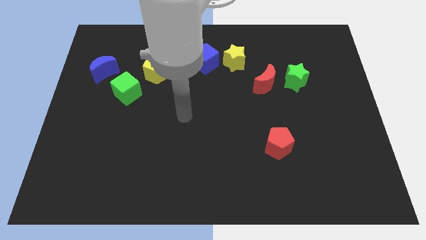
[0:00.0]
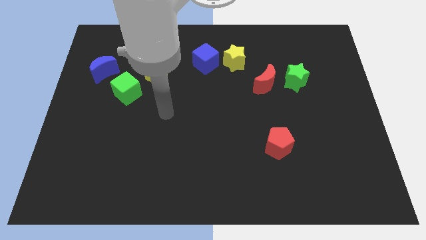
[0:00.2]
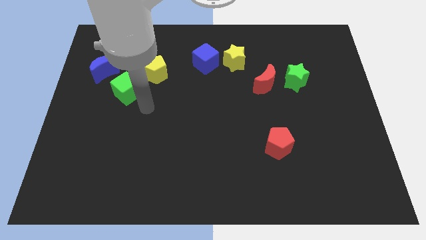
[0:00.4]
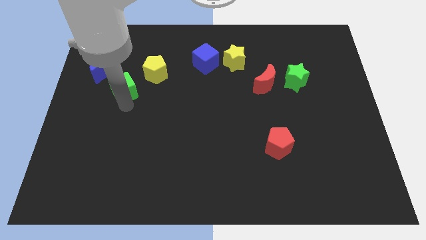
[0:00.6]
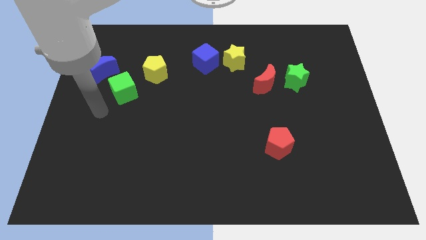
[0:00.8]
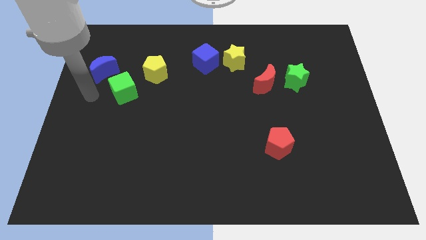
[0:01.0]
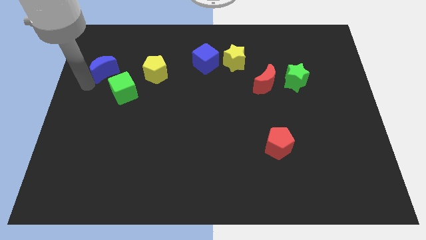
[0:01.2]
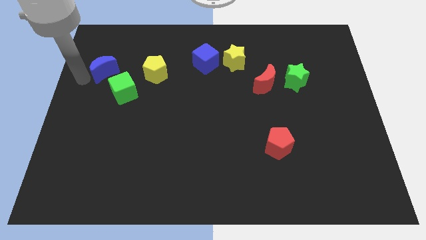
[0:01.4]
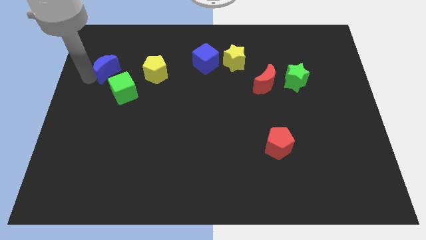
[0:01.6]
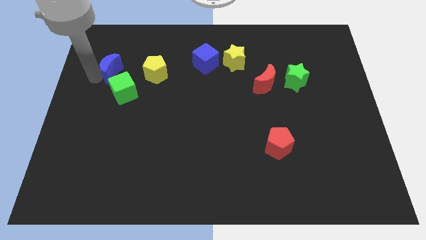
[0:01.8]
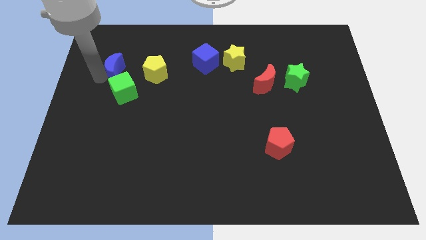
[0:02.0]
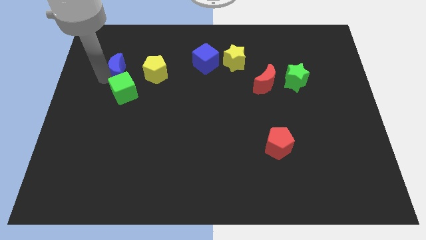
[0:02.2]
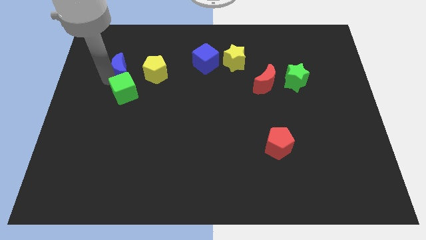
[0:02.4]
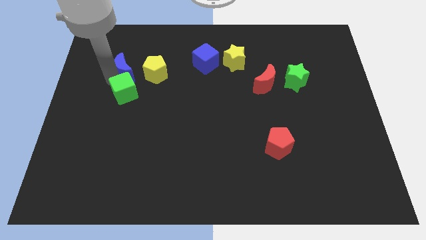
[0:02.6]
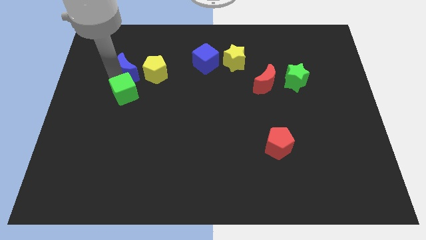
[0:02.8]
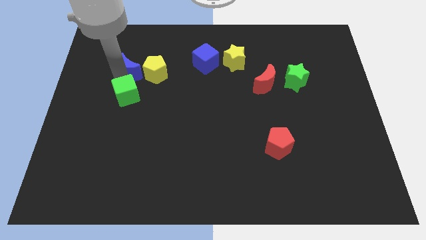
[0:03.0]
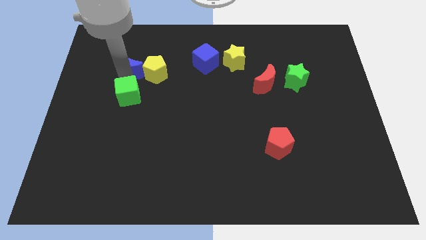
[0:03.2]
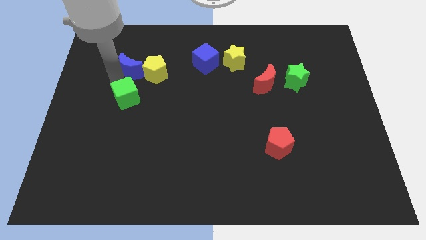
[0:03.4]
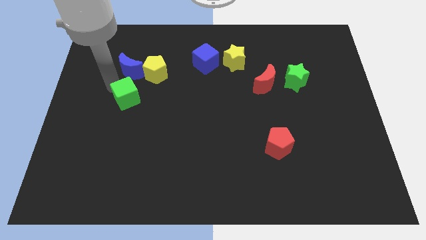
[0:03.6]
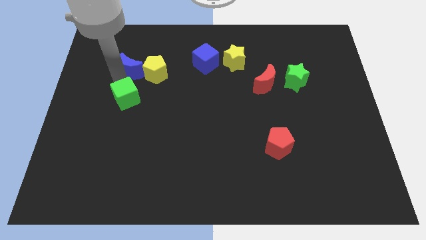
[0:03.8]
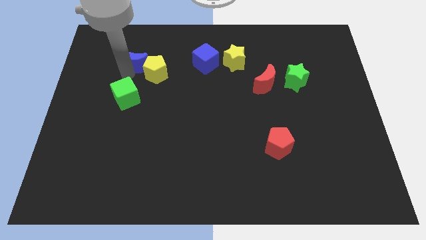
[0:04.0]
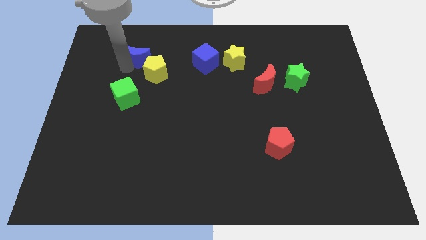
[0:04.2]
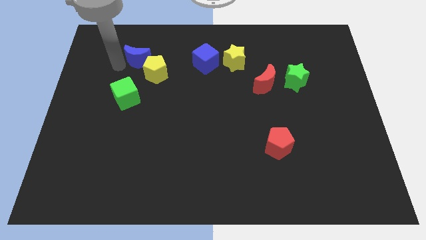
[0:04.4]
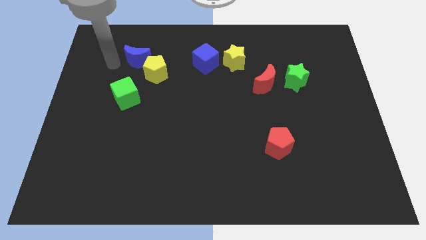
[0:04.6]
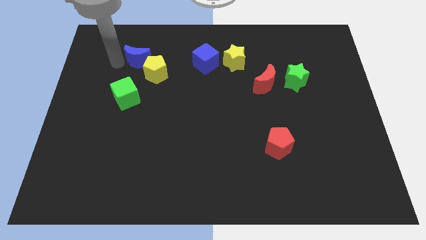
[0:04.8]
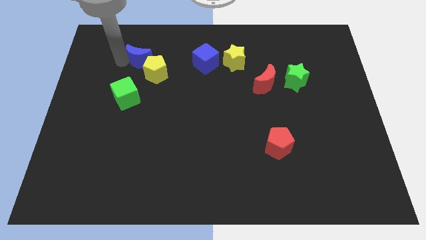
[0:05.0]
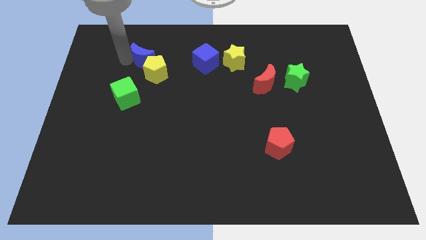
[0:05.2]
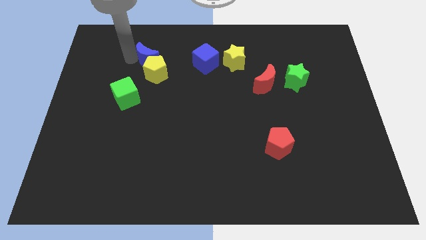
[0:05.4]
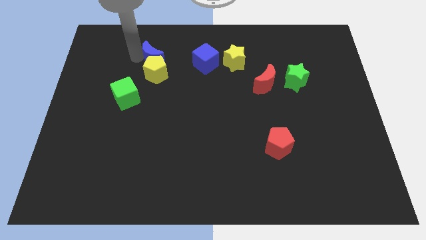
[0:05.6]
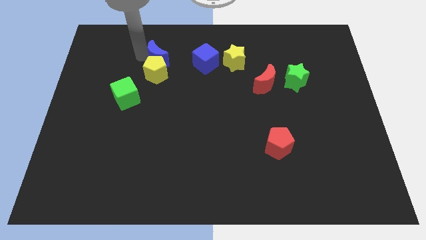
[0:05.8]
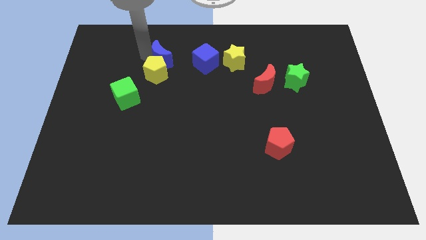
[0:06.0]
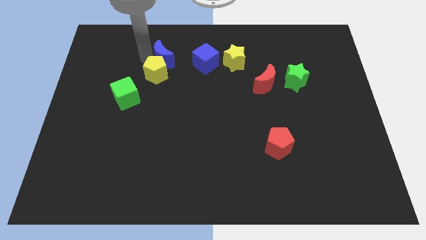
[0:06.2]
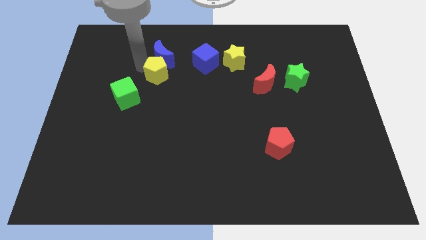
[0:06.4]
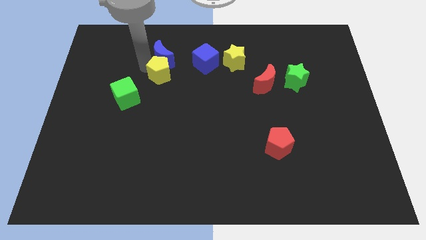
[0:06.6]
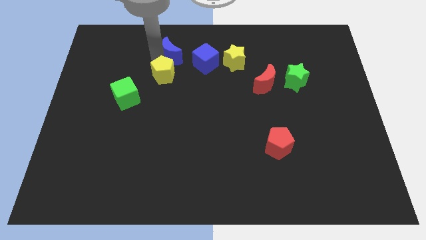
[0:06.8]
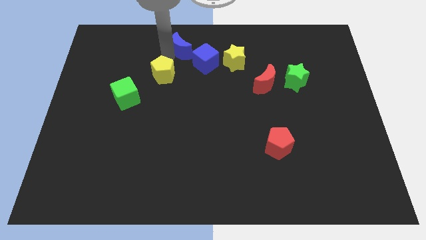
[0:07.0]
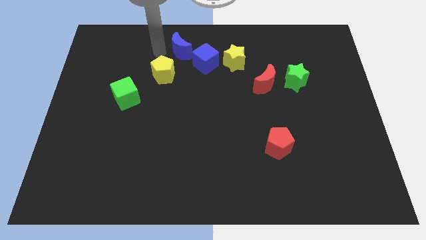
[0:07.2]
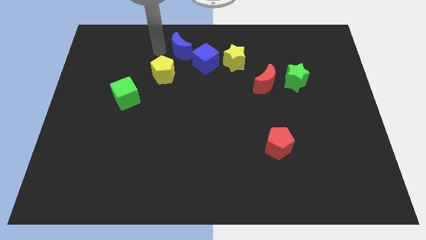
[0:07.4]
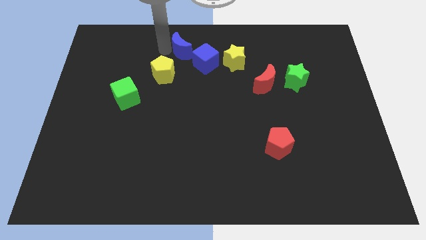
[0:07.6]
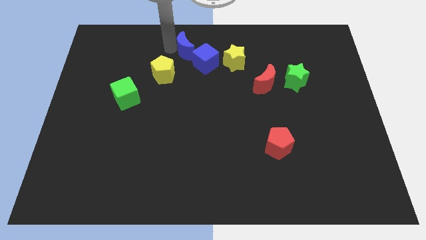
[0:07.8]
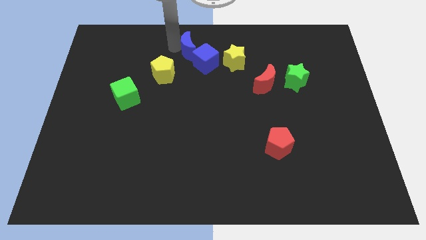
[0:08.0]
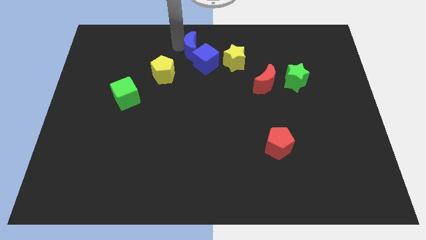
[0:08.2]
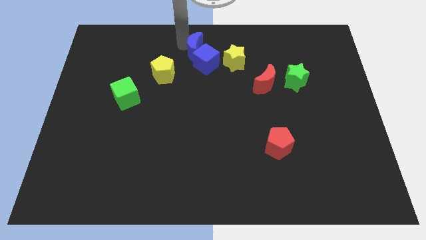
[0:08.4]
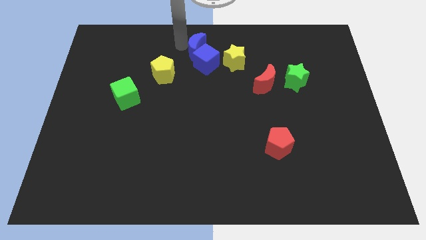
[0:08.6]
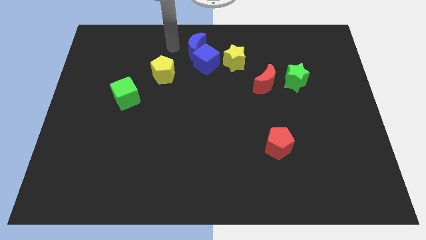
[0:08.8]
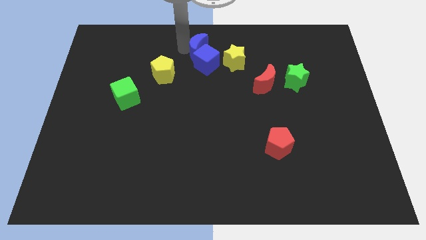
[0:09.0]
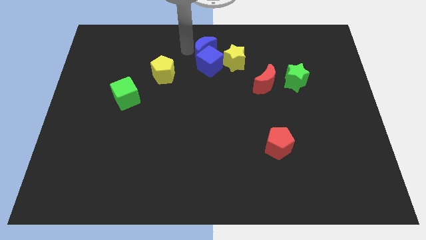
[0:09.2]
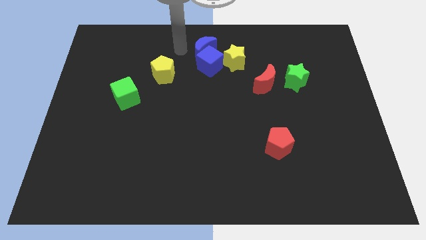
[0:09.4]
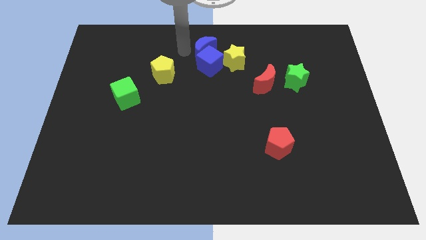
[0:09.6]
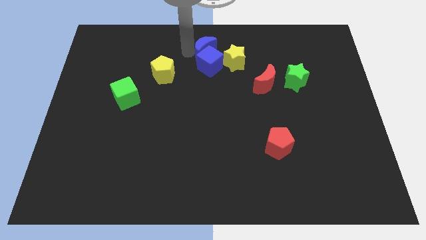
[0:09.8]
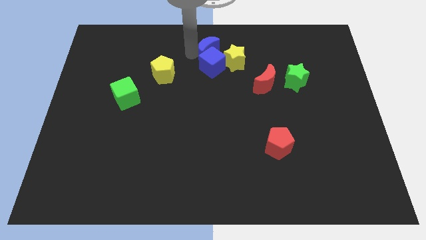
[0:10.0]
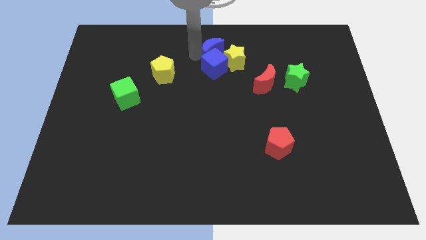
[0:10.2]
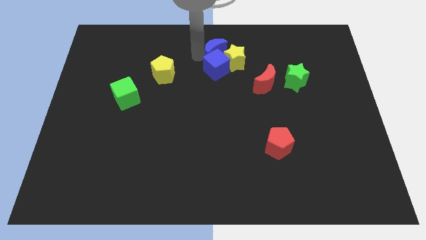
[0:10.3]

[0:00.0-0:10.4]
move the blue moon next to the yellow star

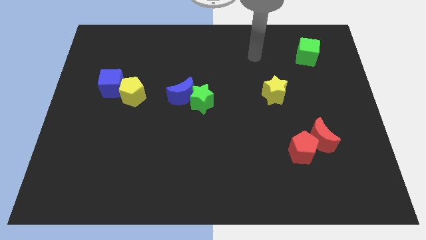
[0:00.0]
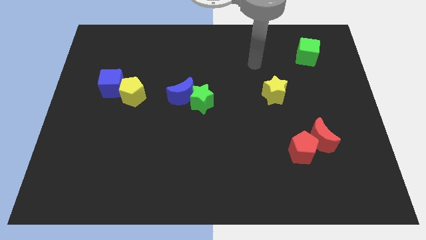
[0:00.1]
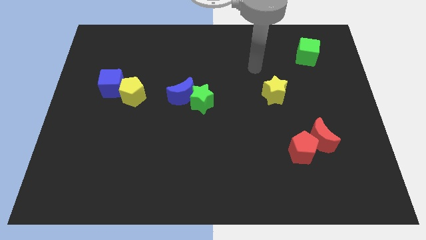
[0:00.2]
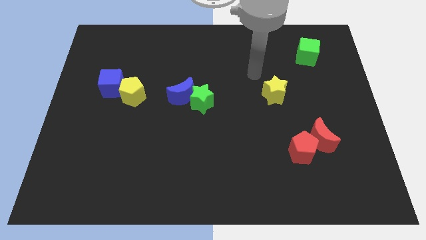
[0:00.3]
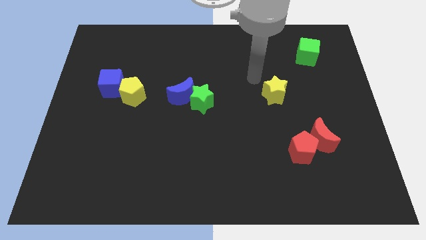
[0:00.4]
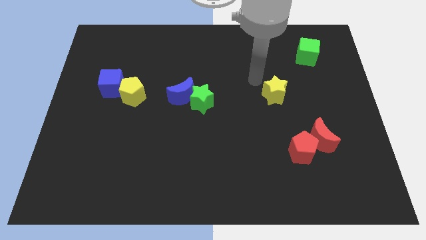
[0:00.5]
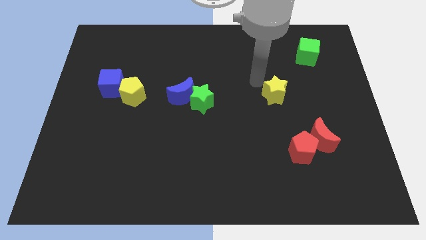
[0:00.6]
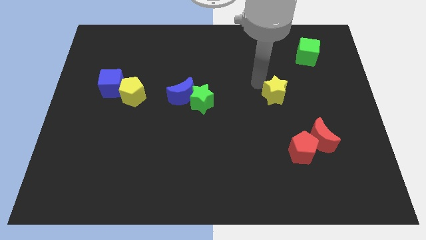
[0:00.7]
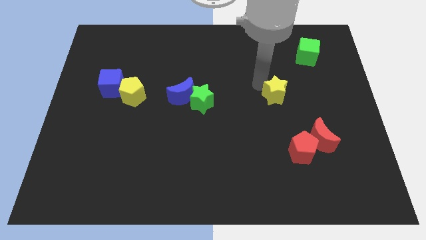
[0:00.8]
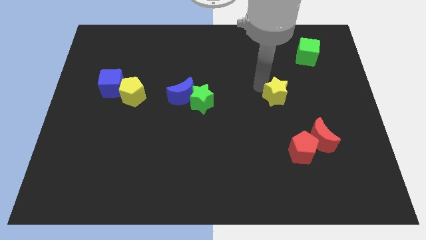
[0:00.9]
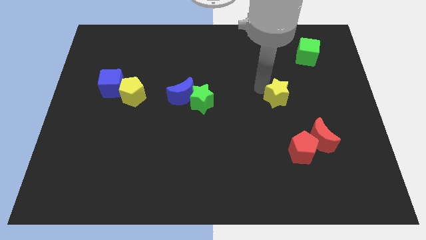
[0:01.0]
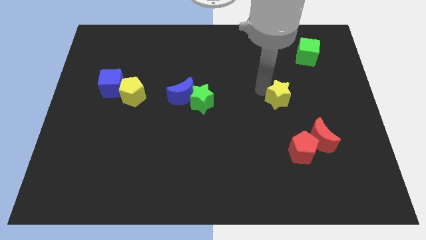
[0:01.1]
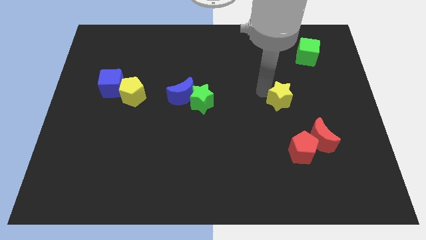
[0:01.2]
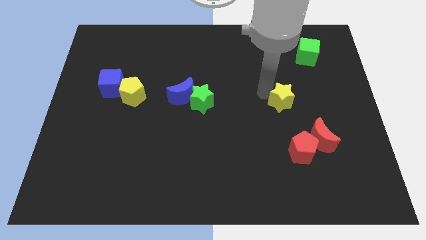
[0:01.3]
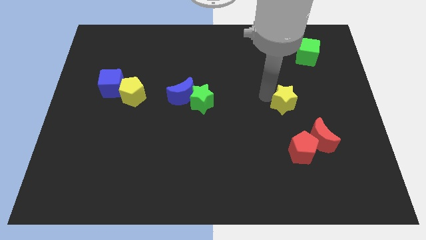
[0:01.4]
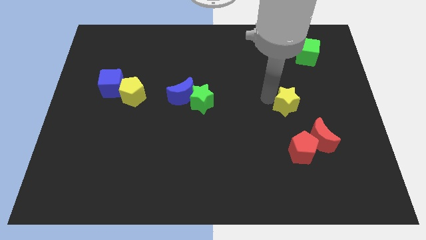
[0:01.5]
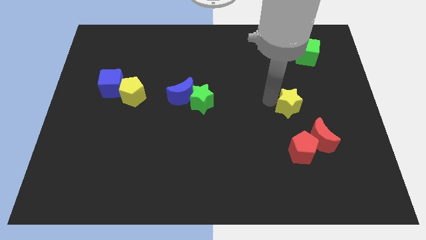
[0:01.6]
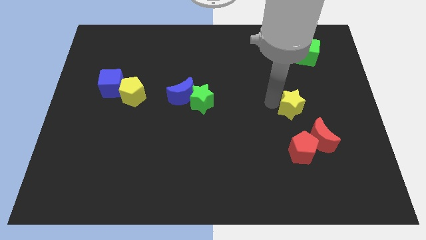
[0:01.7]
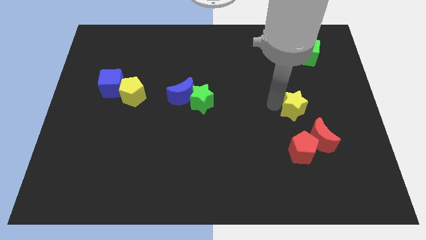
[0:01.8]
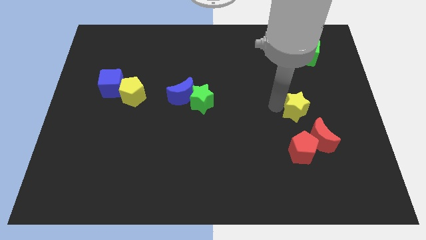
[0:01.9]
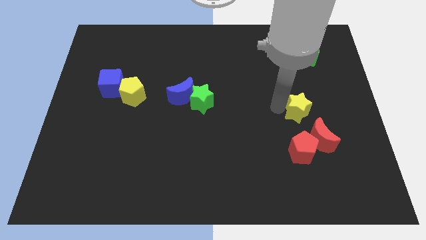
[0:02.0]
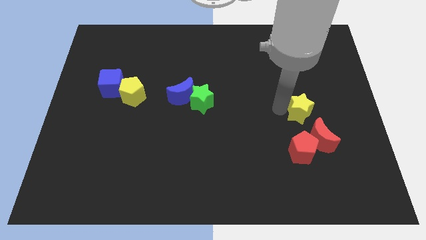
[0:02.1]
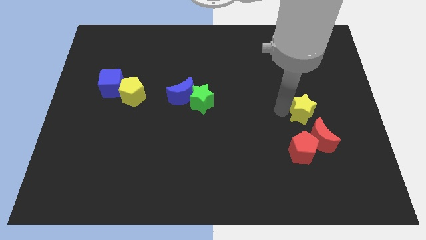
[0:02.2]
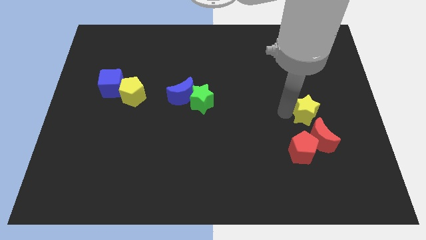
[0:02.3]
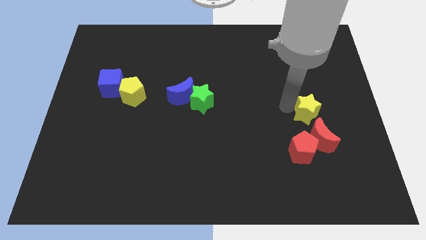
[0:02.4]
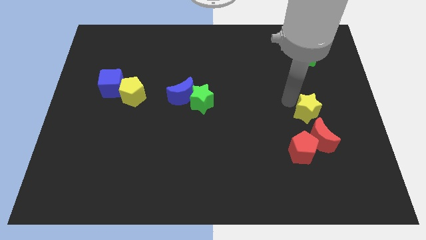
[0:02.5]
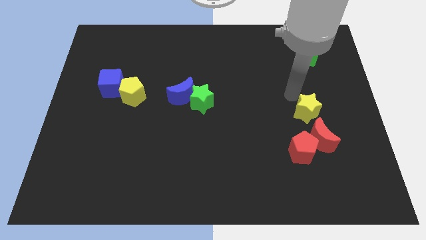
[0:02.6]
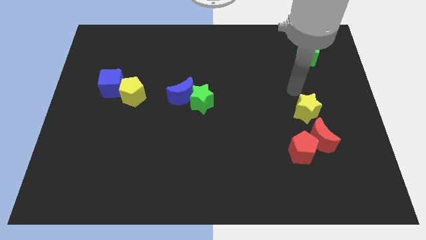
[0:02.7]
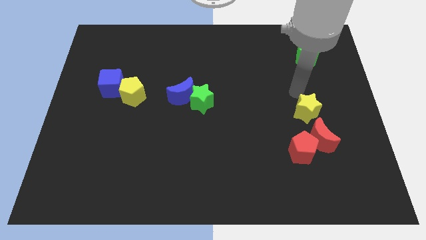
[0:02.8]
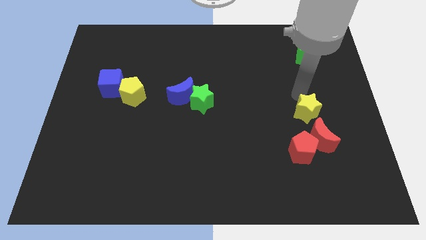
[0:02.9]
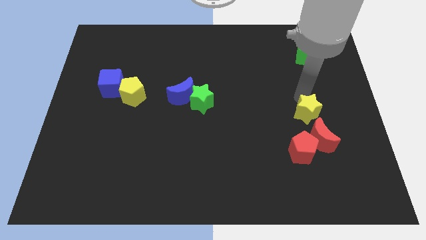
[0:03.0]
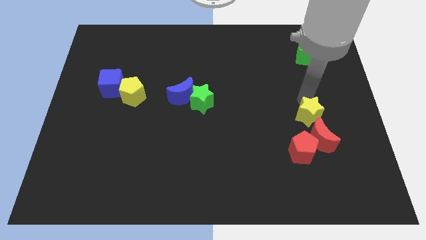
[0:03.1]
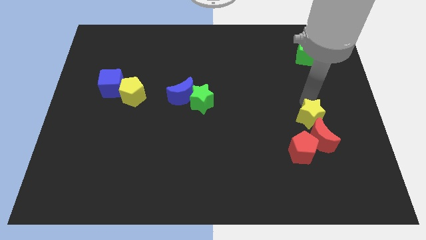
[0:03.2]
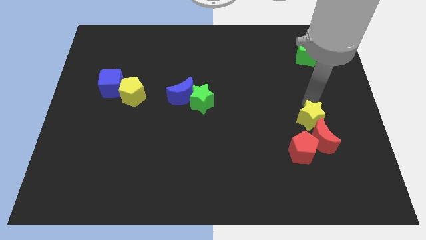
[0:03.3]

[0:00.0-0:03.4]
slide the yellow star next to the red moon

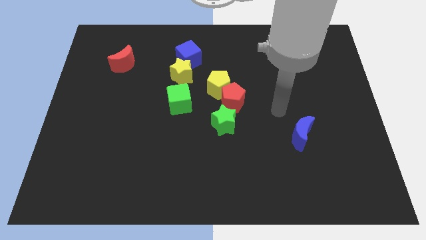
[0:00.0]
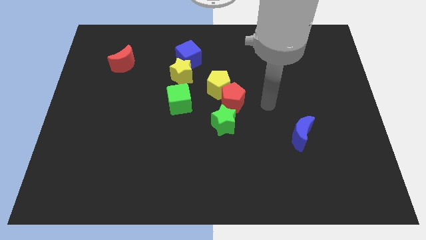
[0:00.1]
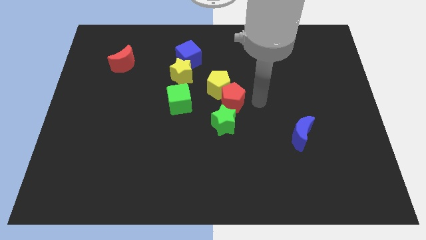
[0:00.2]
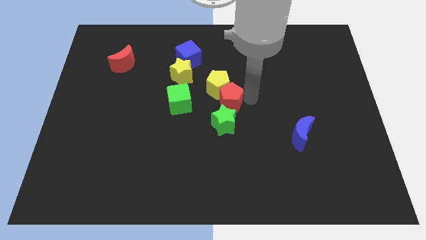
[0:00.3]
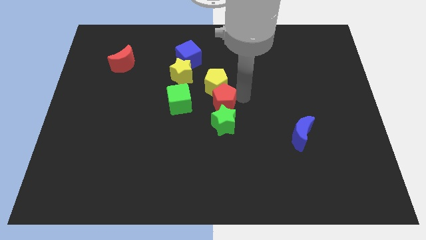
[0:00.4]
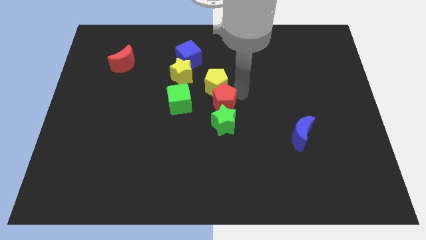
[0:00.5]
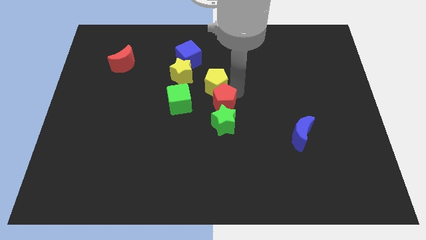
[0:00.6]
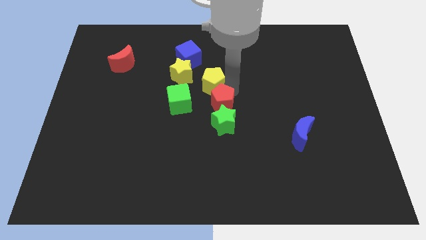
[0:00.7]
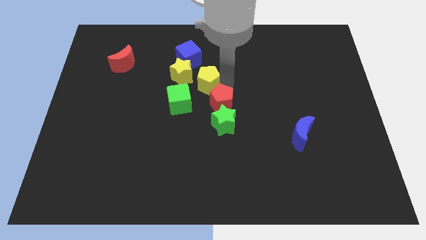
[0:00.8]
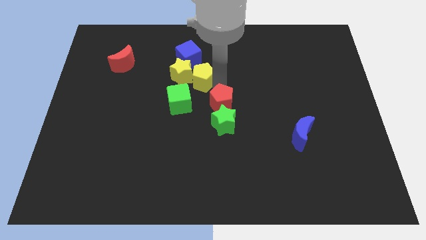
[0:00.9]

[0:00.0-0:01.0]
move the yellow pentagon to the yellow star
